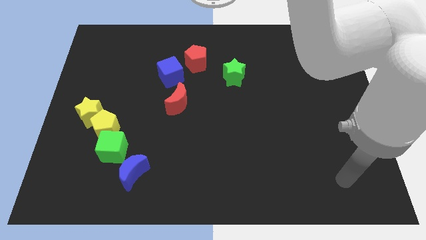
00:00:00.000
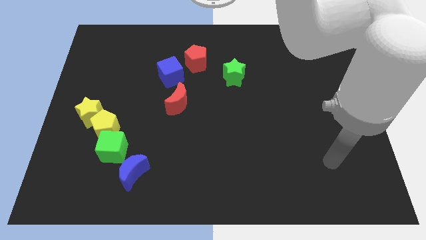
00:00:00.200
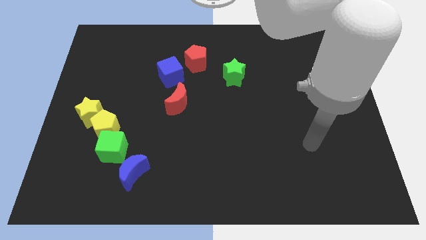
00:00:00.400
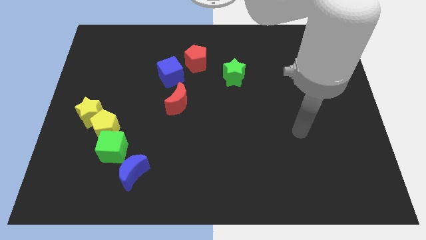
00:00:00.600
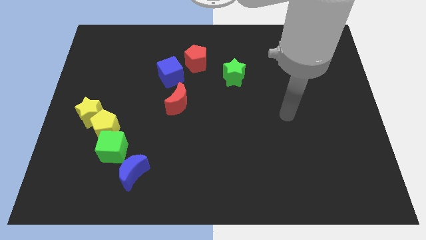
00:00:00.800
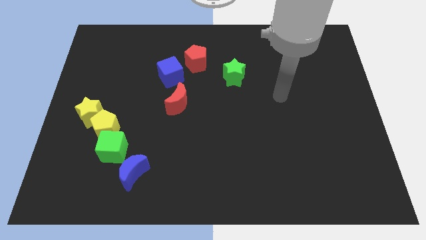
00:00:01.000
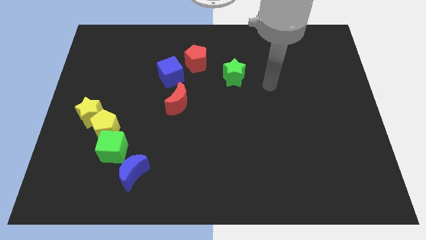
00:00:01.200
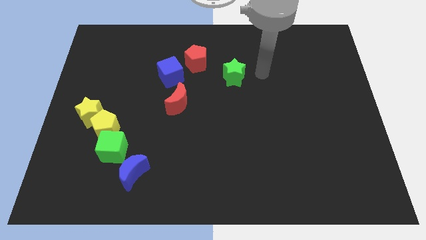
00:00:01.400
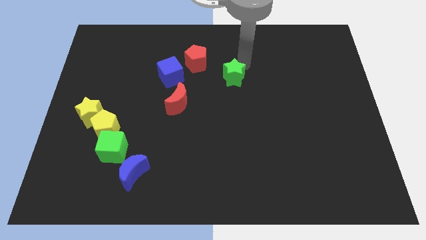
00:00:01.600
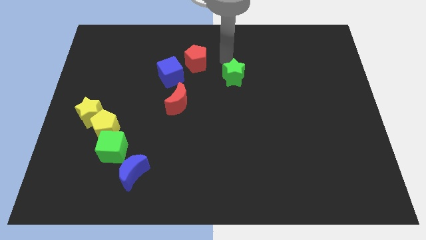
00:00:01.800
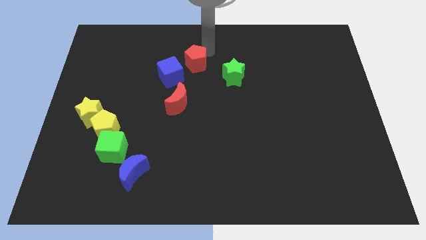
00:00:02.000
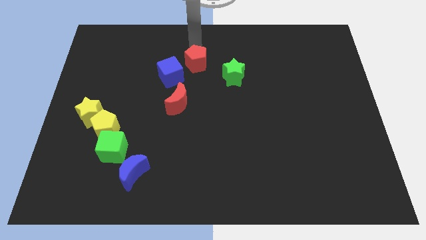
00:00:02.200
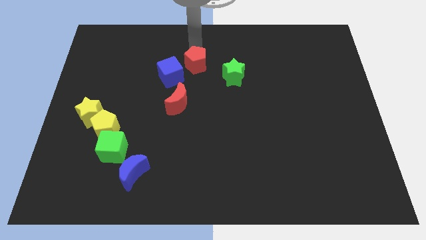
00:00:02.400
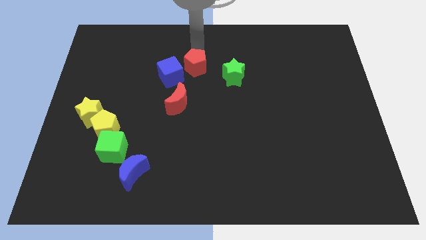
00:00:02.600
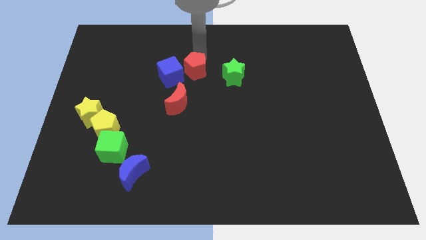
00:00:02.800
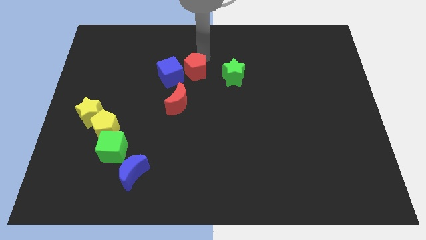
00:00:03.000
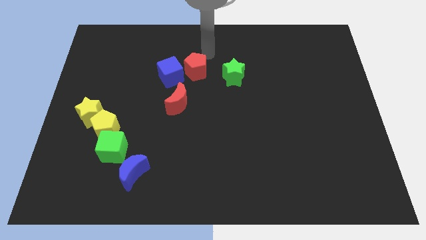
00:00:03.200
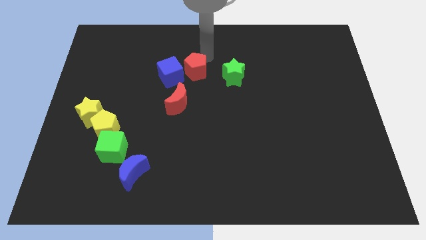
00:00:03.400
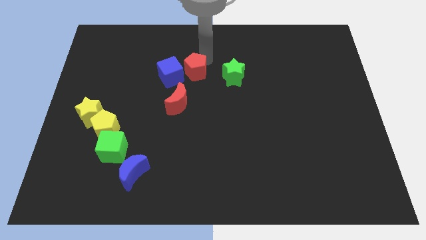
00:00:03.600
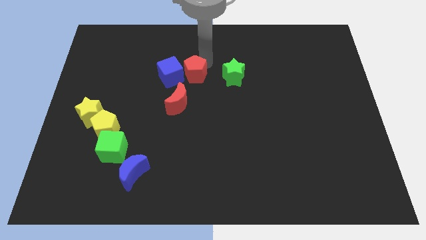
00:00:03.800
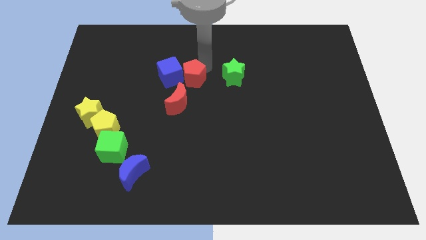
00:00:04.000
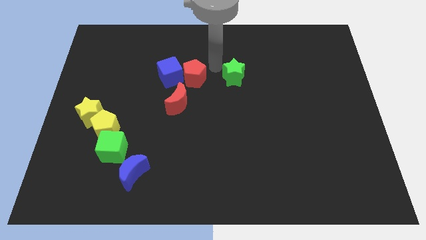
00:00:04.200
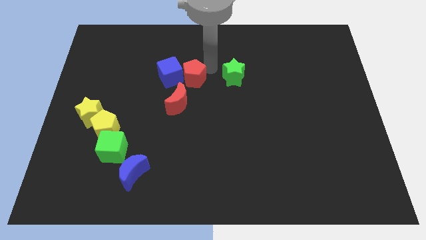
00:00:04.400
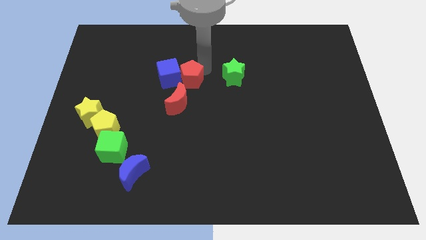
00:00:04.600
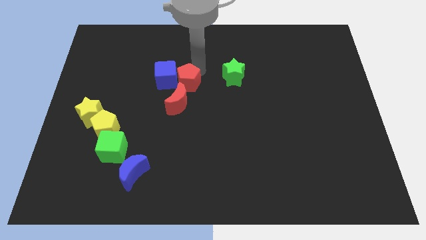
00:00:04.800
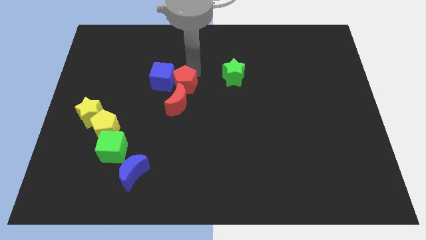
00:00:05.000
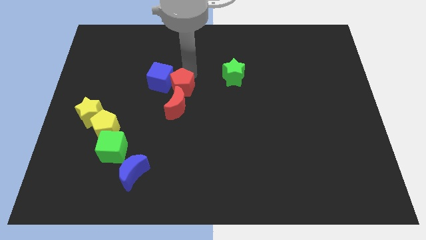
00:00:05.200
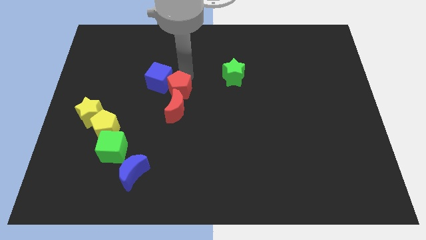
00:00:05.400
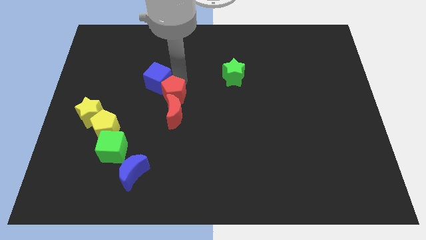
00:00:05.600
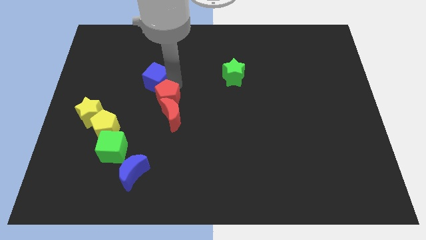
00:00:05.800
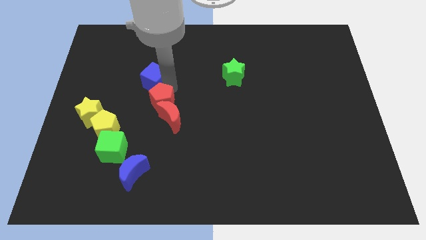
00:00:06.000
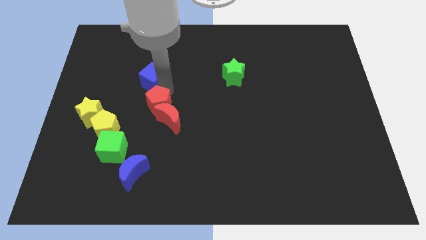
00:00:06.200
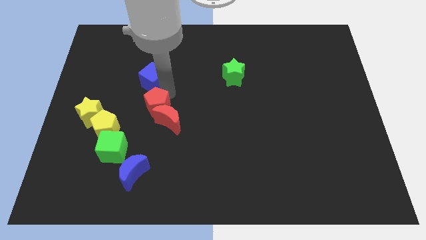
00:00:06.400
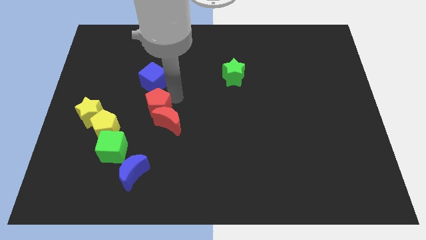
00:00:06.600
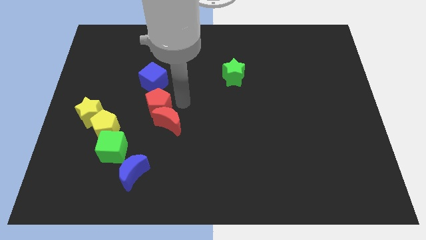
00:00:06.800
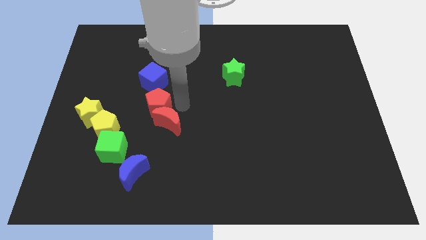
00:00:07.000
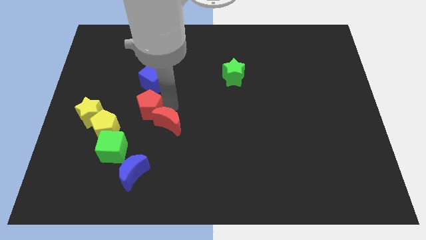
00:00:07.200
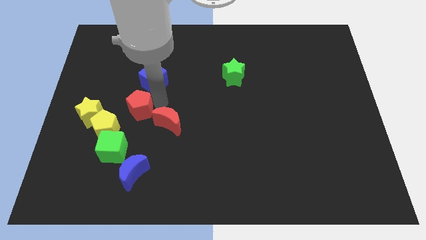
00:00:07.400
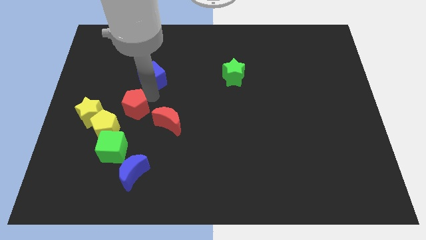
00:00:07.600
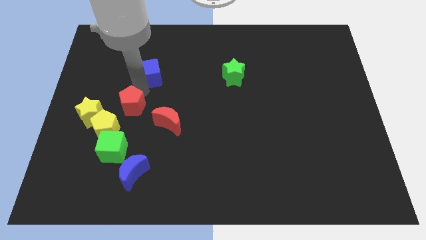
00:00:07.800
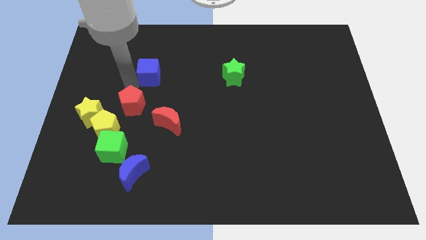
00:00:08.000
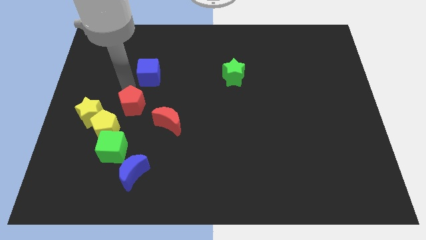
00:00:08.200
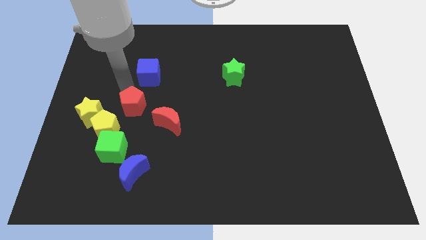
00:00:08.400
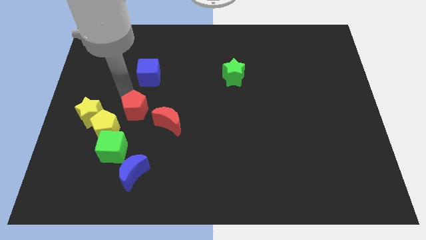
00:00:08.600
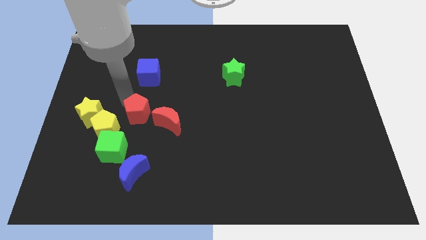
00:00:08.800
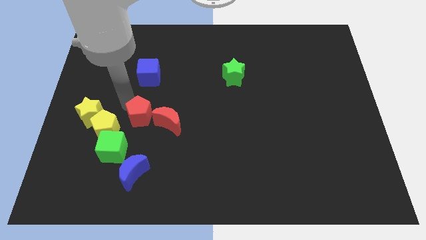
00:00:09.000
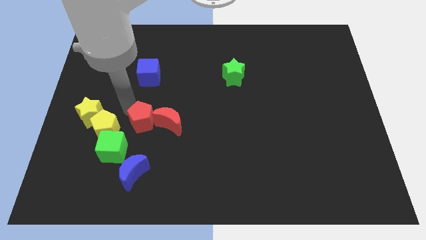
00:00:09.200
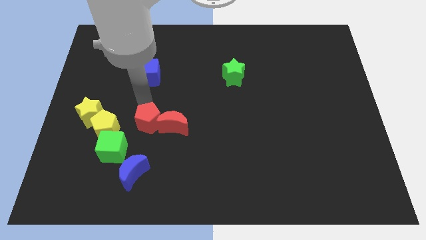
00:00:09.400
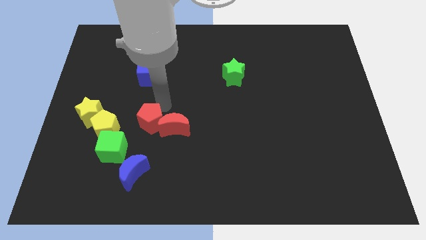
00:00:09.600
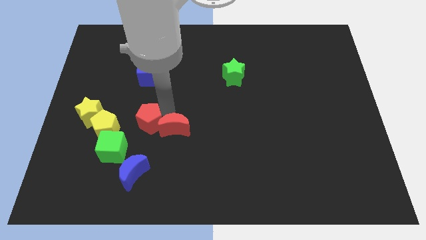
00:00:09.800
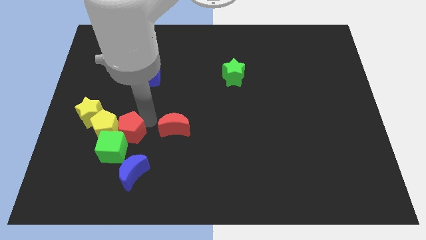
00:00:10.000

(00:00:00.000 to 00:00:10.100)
move the red pentagon next to the green cube

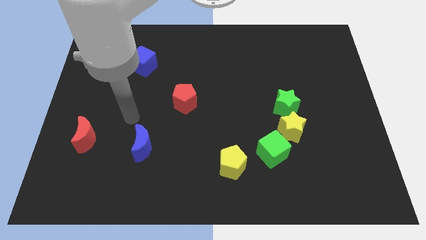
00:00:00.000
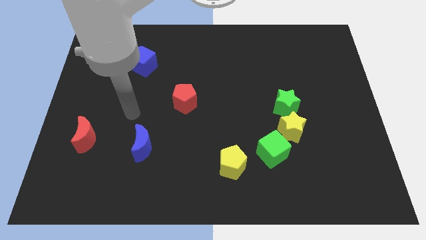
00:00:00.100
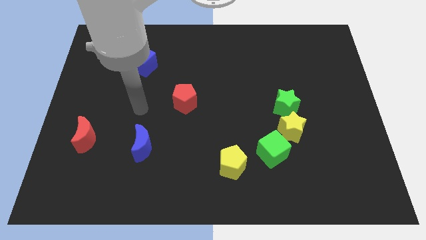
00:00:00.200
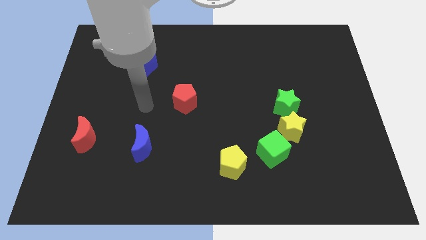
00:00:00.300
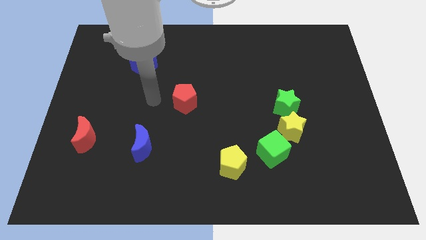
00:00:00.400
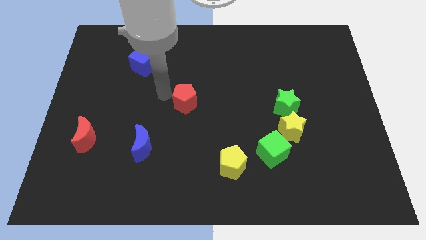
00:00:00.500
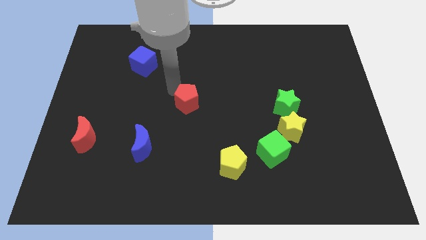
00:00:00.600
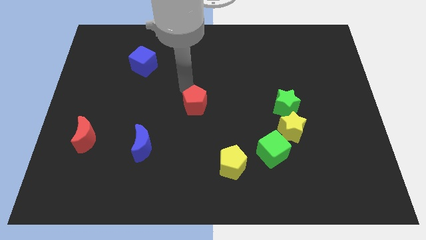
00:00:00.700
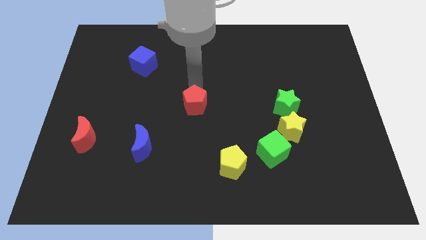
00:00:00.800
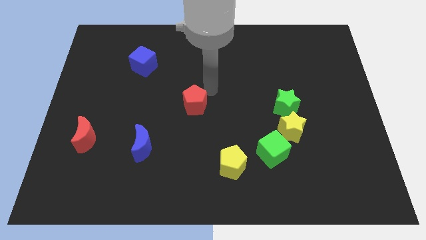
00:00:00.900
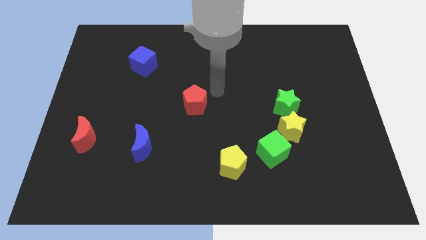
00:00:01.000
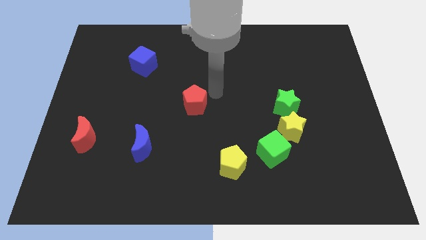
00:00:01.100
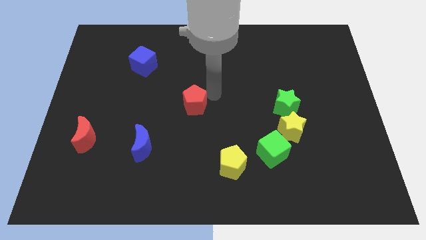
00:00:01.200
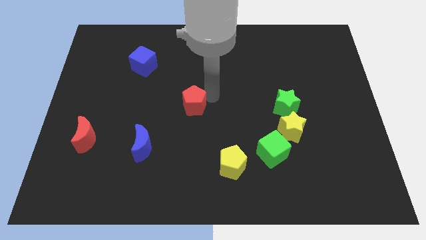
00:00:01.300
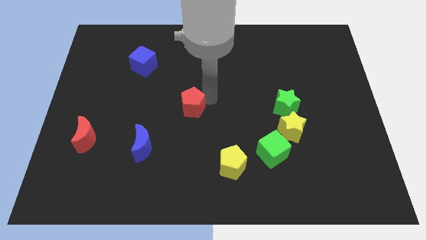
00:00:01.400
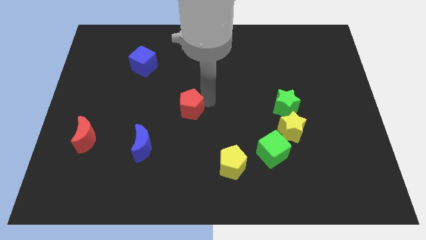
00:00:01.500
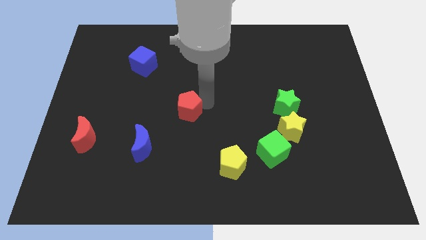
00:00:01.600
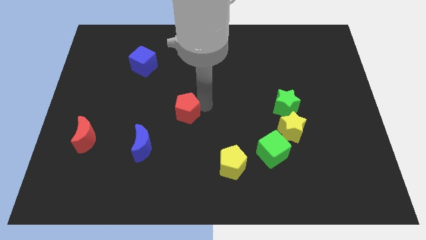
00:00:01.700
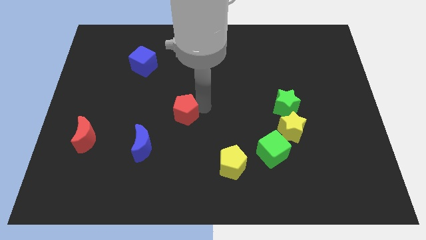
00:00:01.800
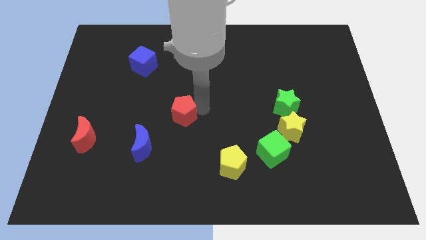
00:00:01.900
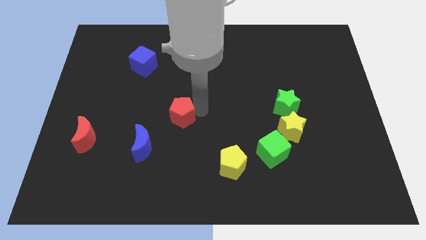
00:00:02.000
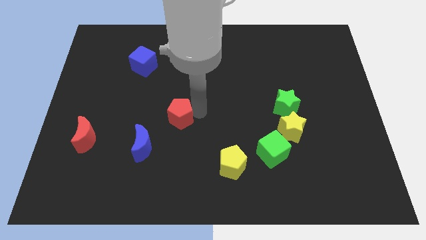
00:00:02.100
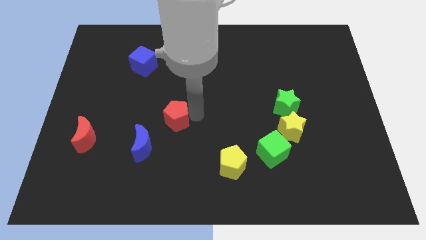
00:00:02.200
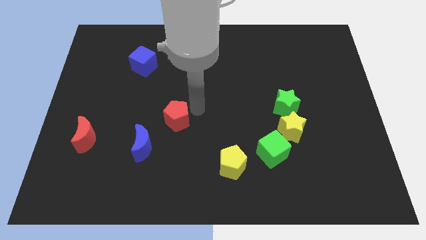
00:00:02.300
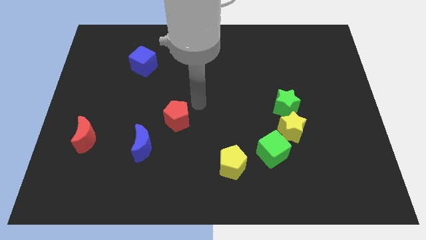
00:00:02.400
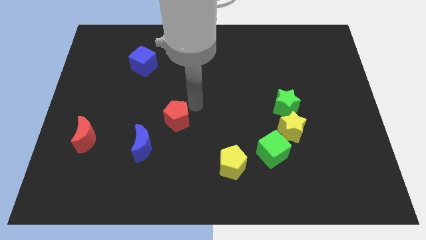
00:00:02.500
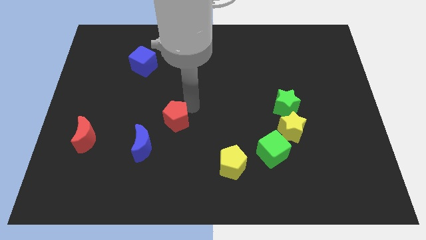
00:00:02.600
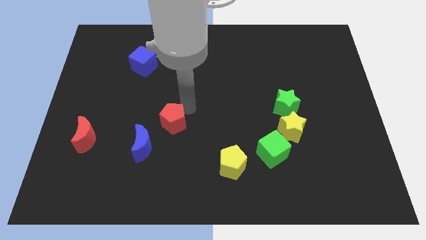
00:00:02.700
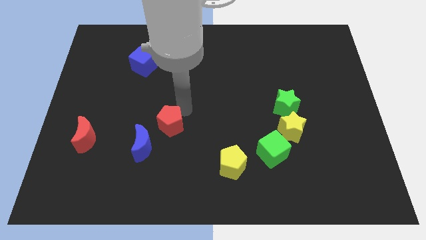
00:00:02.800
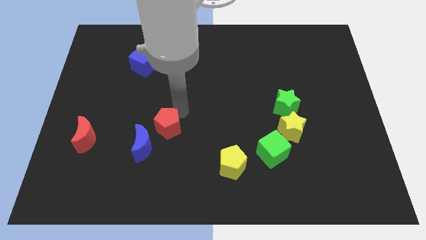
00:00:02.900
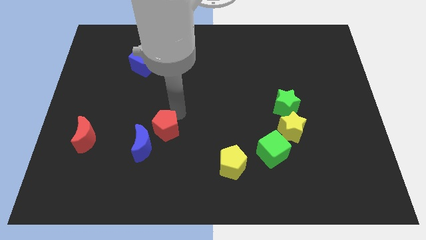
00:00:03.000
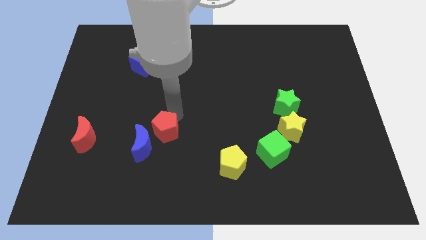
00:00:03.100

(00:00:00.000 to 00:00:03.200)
put the red pentagon to the blue moon
